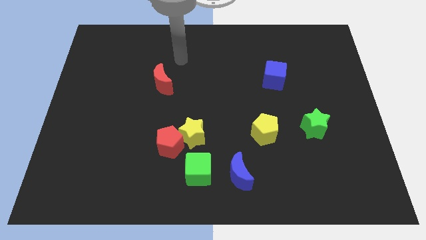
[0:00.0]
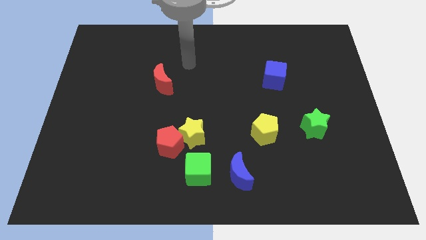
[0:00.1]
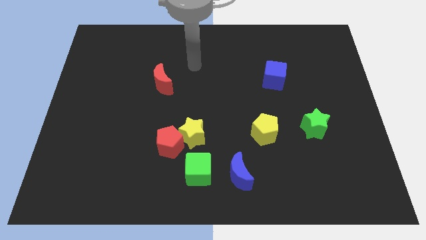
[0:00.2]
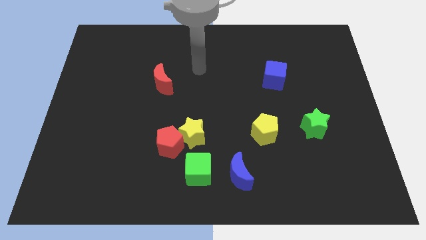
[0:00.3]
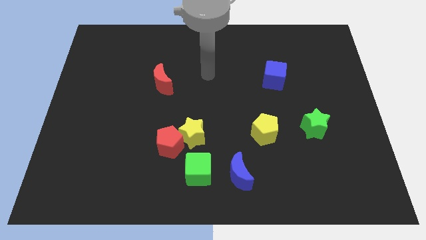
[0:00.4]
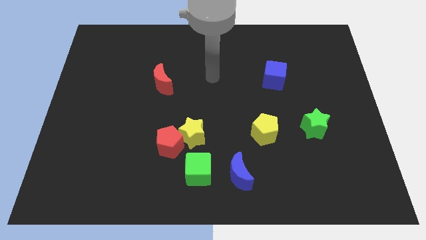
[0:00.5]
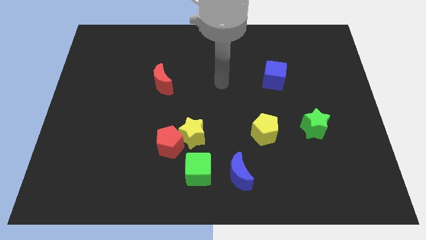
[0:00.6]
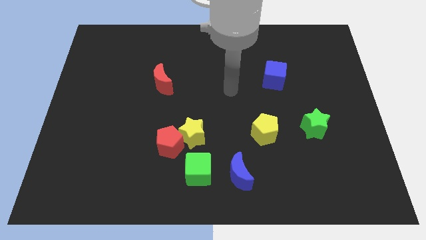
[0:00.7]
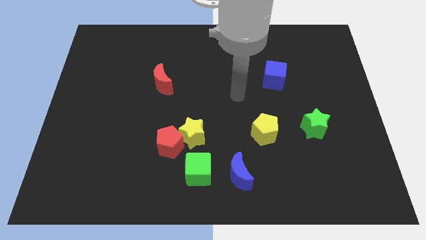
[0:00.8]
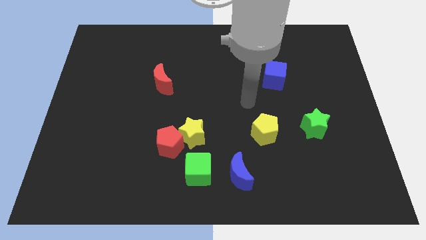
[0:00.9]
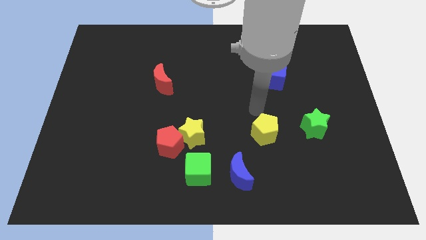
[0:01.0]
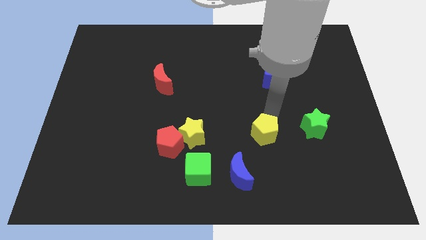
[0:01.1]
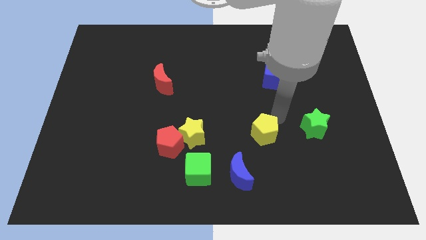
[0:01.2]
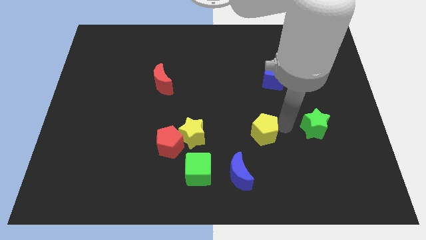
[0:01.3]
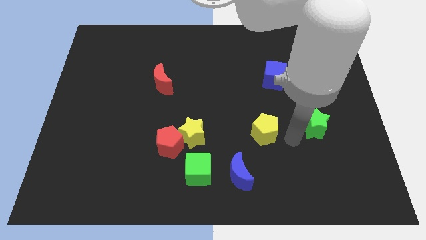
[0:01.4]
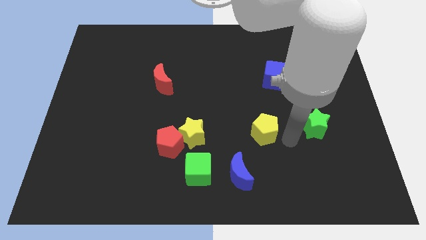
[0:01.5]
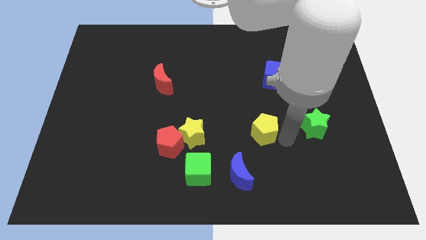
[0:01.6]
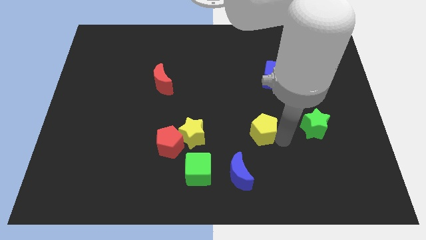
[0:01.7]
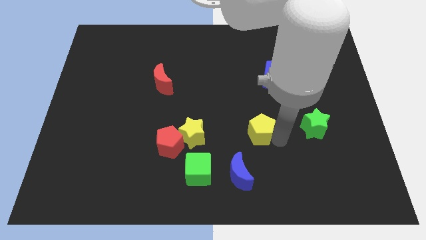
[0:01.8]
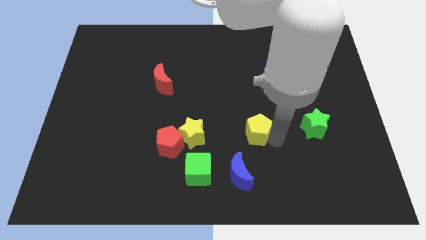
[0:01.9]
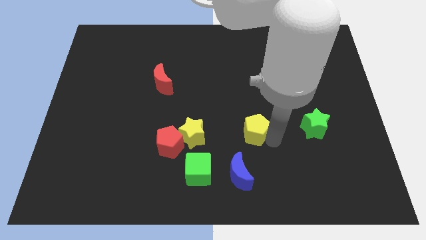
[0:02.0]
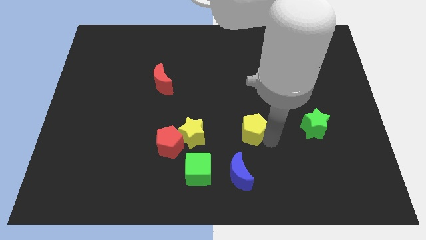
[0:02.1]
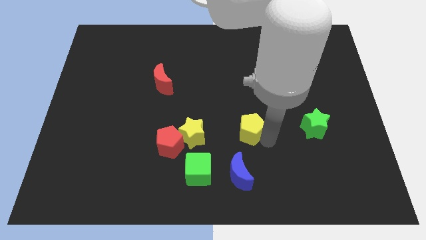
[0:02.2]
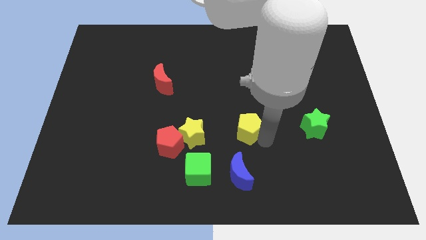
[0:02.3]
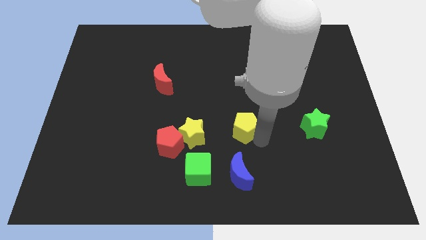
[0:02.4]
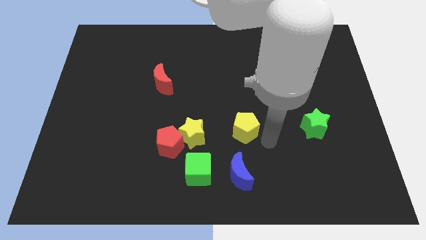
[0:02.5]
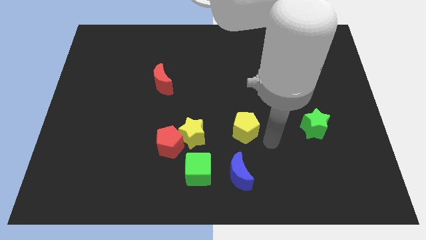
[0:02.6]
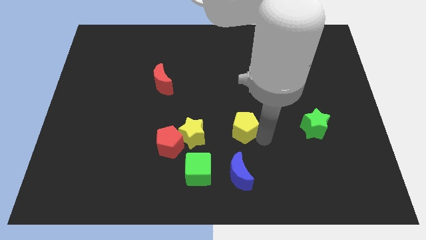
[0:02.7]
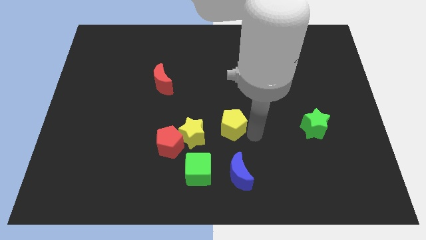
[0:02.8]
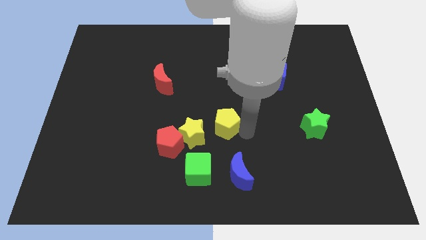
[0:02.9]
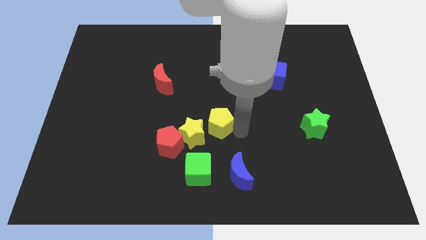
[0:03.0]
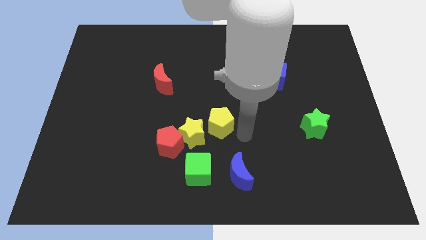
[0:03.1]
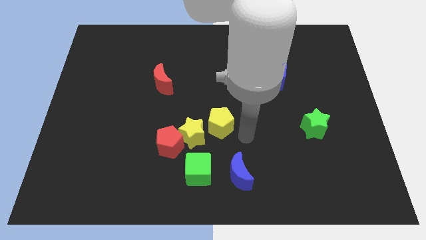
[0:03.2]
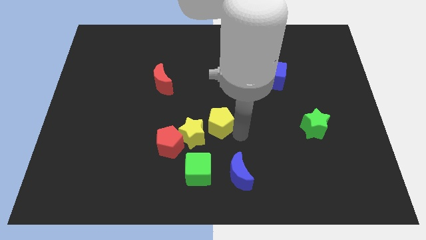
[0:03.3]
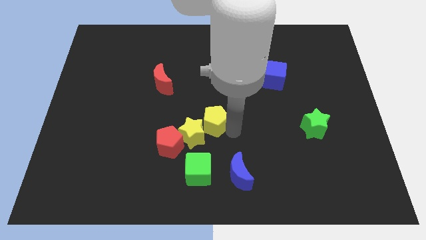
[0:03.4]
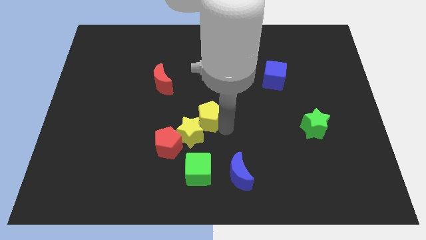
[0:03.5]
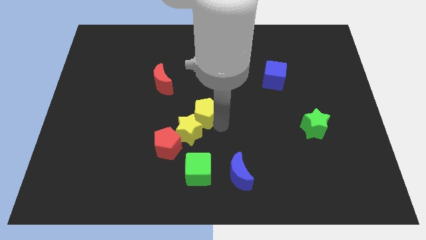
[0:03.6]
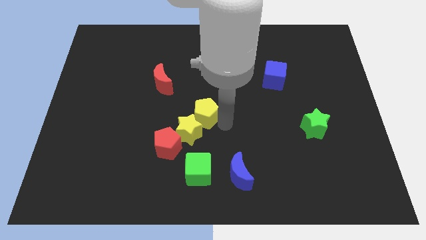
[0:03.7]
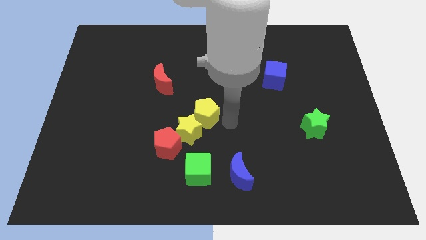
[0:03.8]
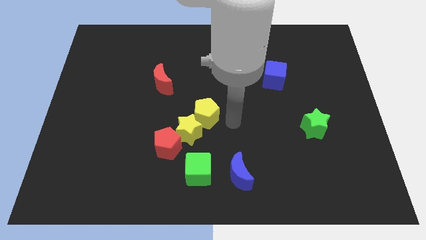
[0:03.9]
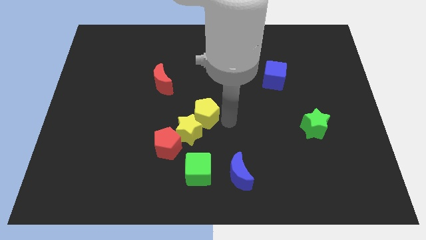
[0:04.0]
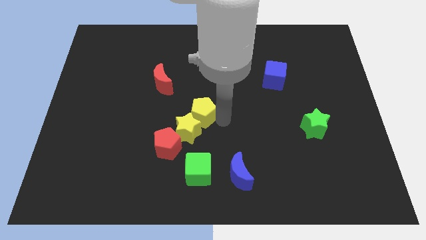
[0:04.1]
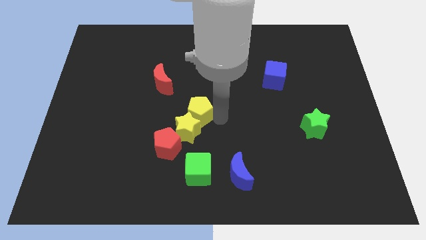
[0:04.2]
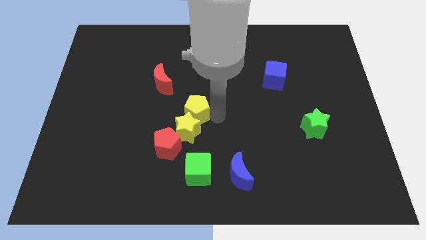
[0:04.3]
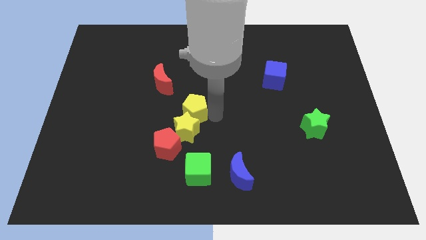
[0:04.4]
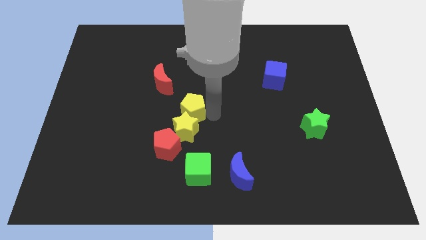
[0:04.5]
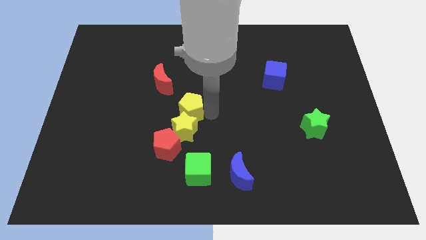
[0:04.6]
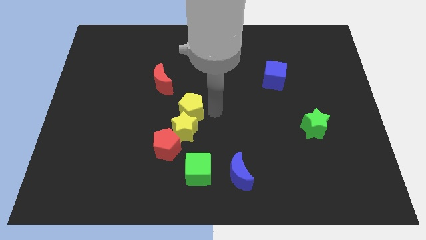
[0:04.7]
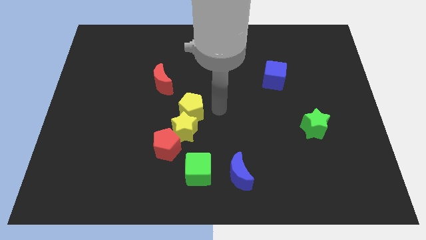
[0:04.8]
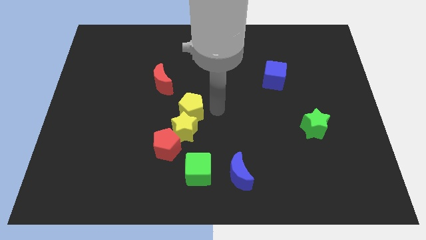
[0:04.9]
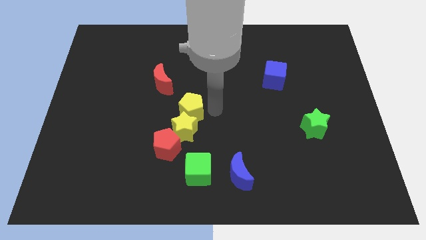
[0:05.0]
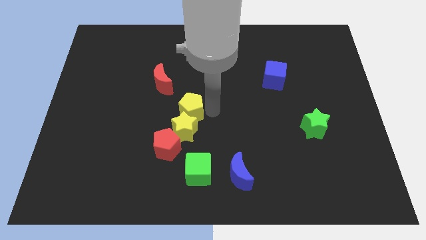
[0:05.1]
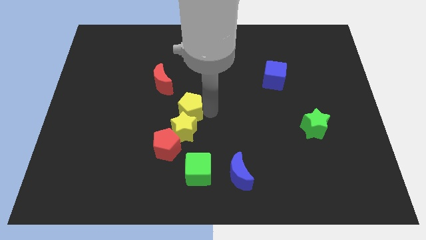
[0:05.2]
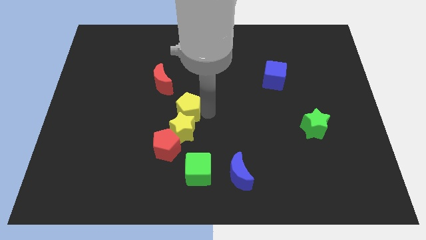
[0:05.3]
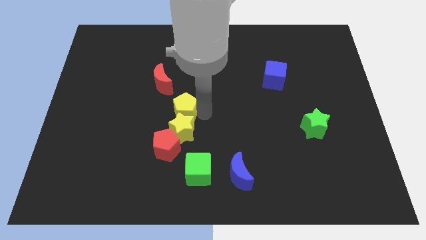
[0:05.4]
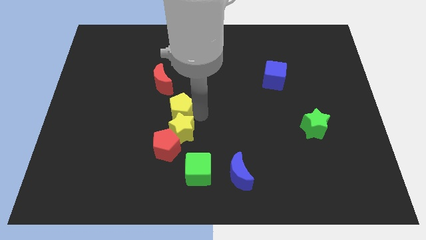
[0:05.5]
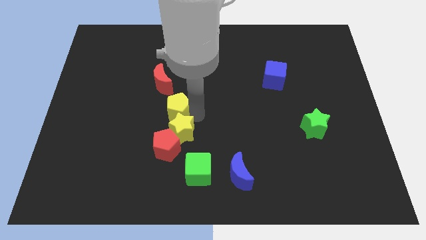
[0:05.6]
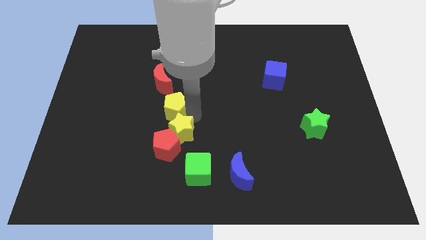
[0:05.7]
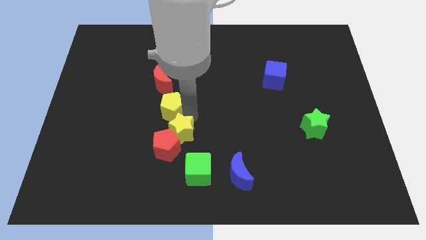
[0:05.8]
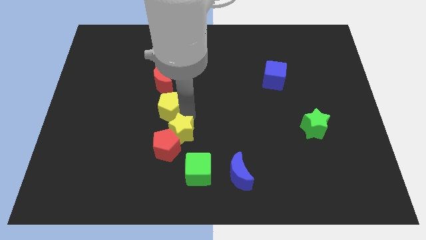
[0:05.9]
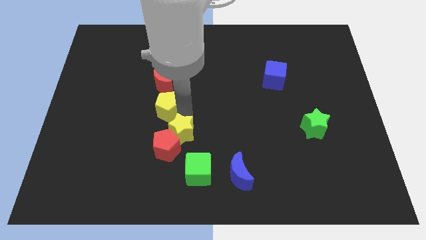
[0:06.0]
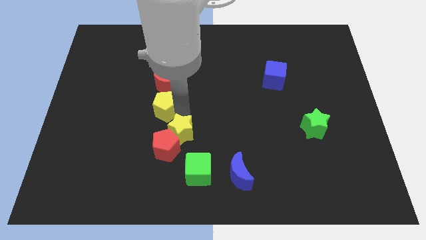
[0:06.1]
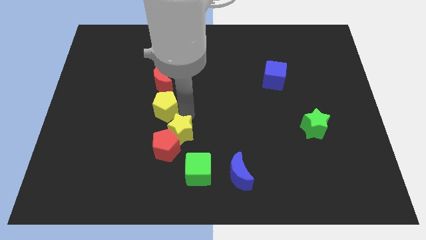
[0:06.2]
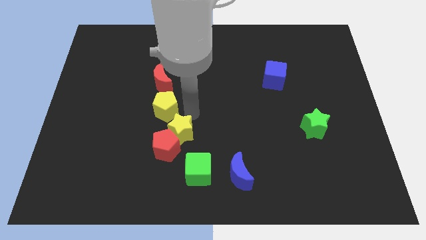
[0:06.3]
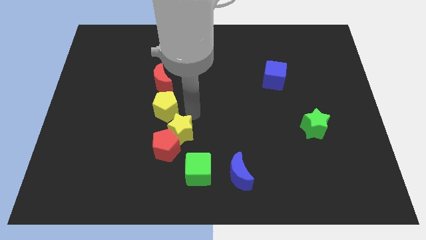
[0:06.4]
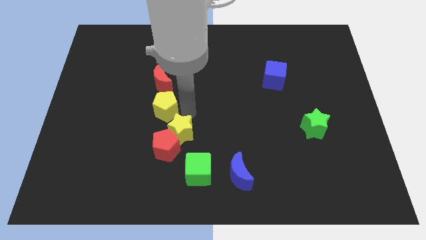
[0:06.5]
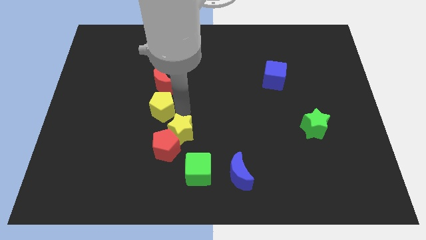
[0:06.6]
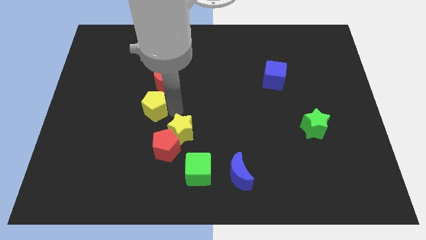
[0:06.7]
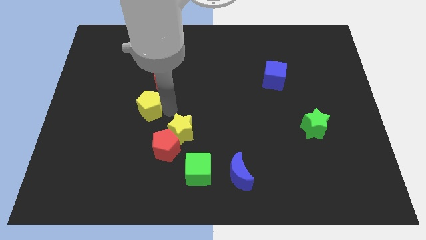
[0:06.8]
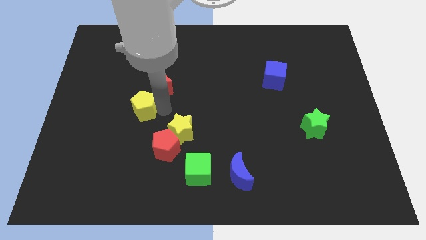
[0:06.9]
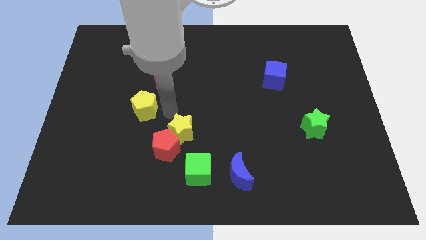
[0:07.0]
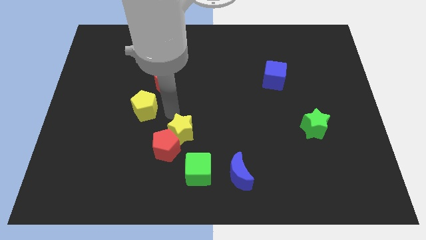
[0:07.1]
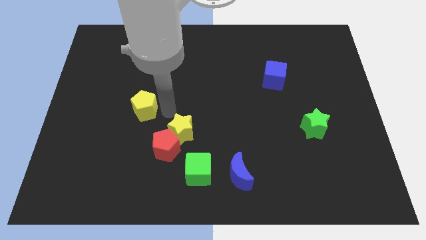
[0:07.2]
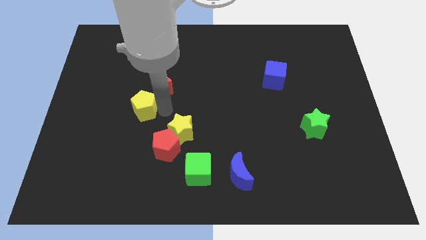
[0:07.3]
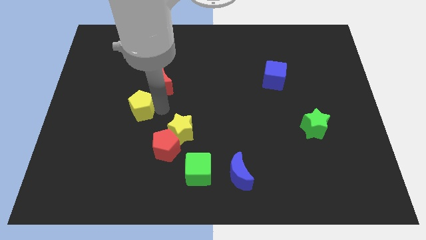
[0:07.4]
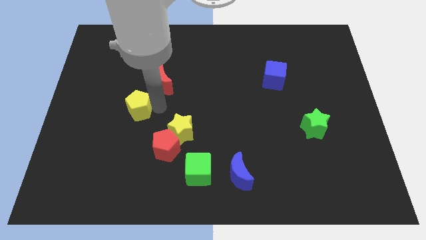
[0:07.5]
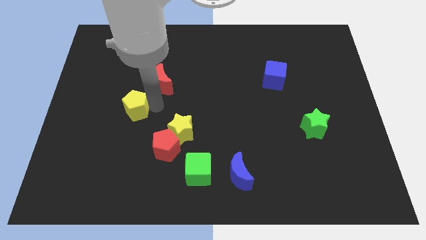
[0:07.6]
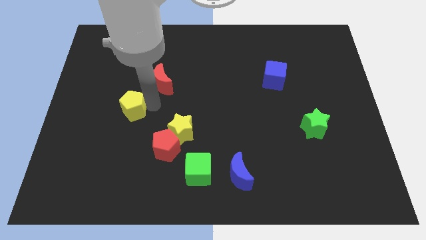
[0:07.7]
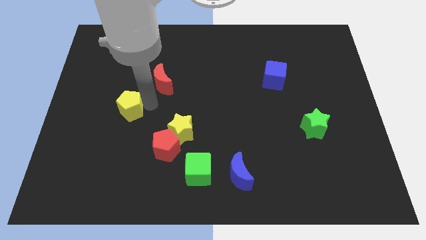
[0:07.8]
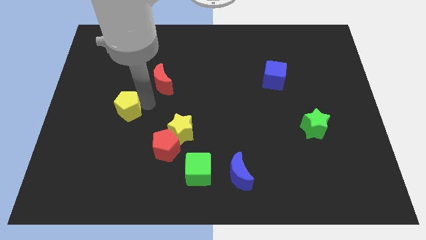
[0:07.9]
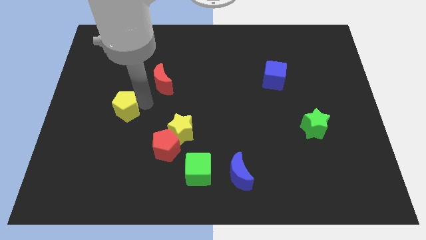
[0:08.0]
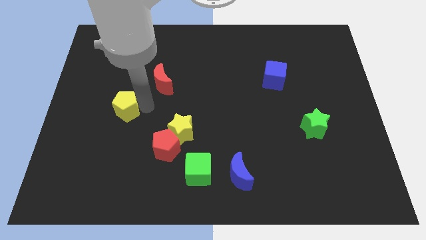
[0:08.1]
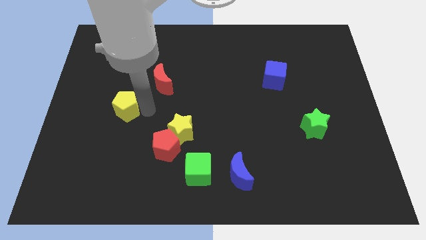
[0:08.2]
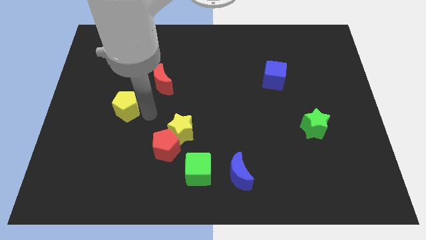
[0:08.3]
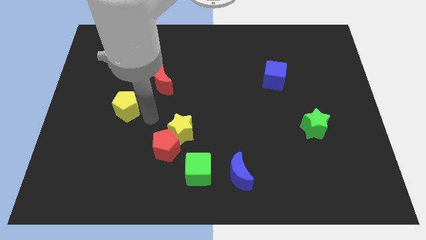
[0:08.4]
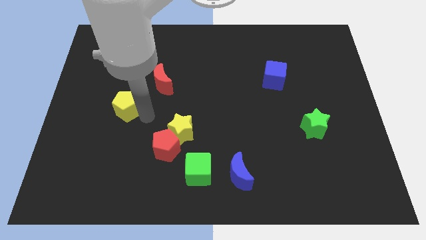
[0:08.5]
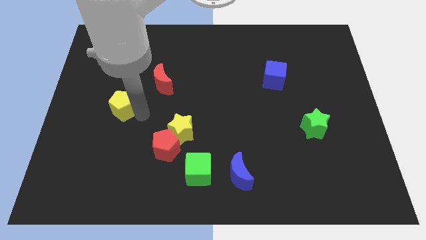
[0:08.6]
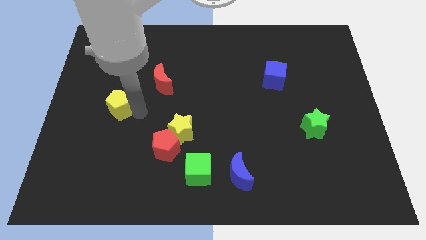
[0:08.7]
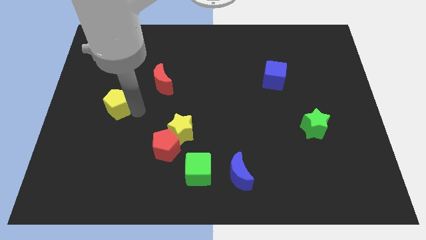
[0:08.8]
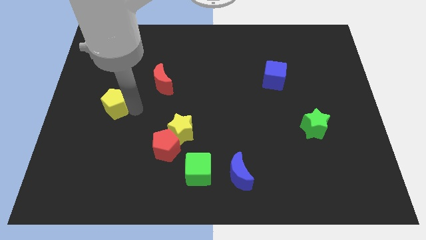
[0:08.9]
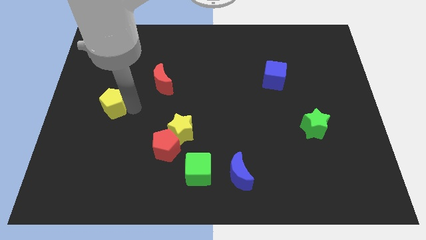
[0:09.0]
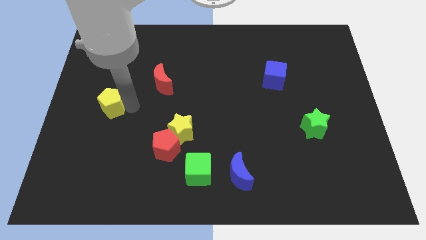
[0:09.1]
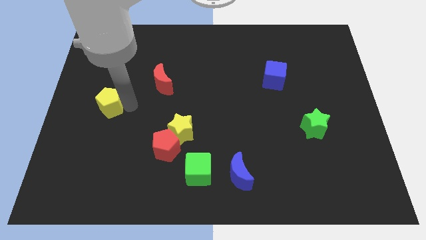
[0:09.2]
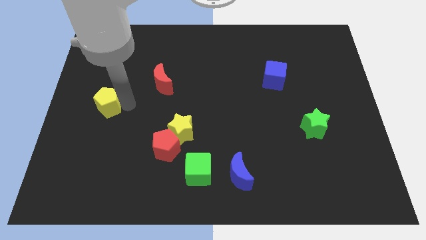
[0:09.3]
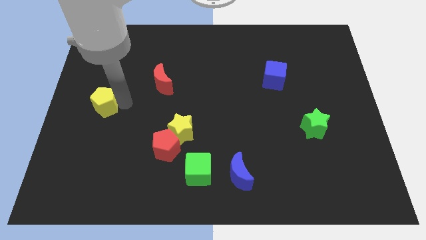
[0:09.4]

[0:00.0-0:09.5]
move the yellow pentagon to the left side
